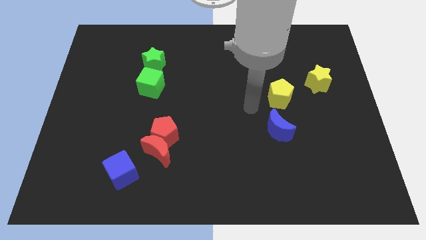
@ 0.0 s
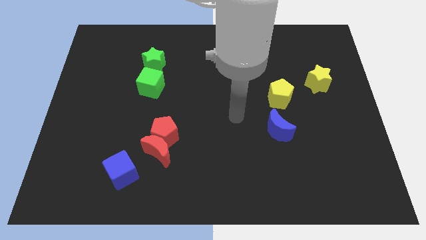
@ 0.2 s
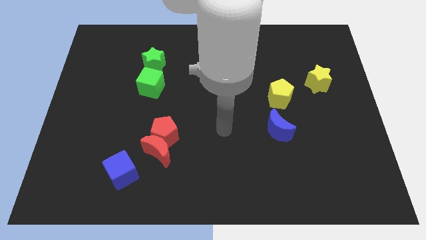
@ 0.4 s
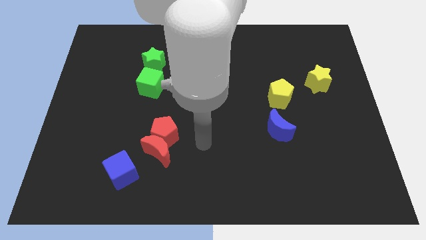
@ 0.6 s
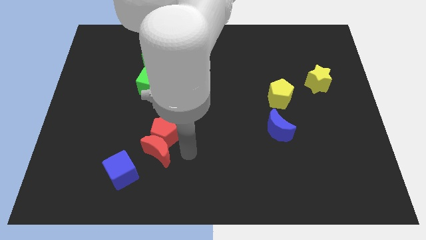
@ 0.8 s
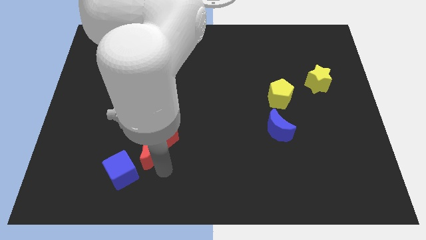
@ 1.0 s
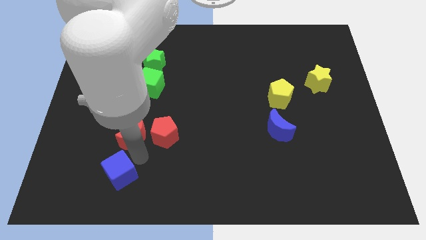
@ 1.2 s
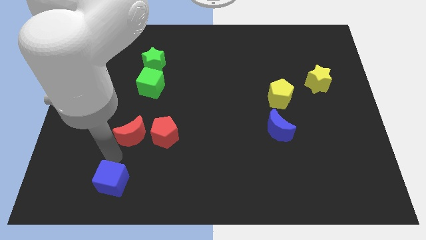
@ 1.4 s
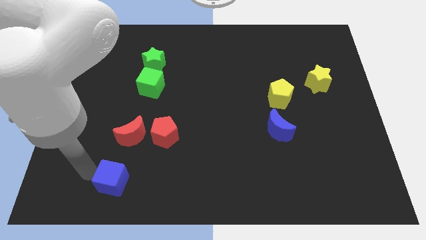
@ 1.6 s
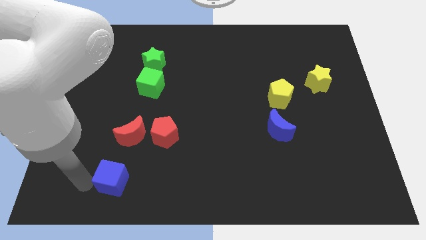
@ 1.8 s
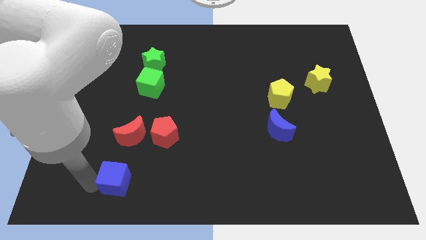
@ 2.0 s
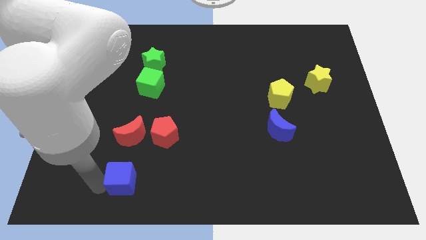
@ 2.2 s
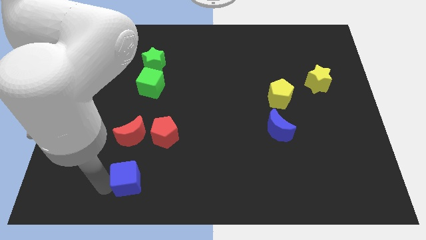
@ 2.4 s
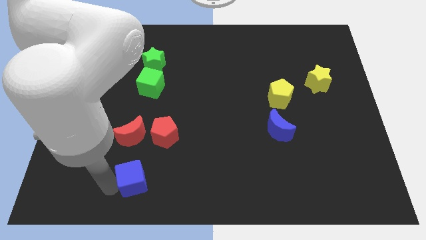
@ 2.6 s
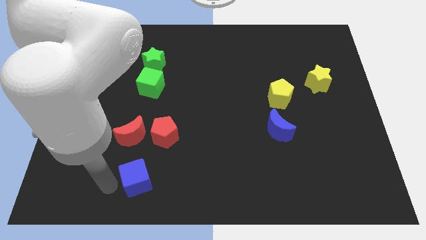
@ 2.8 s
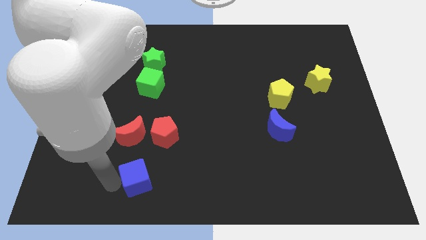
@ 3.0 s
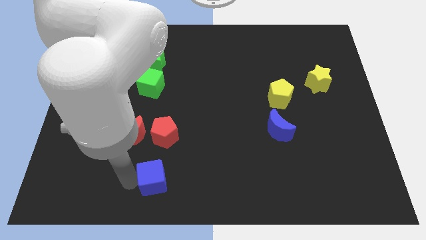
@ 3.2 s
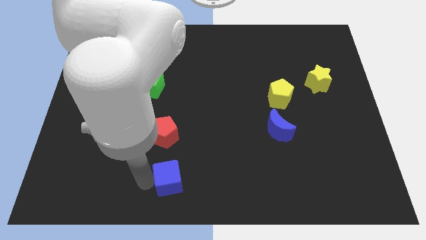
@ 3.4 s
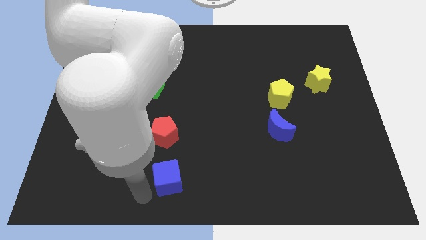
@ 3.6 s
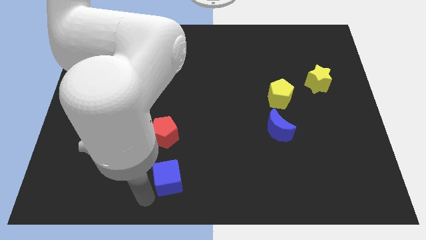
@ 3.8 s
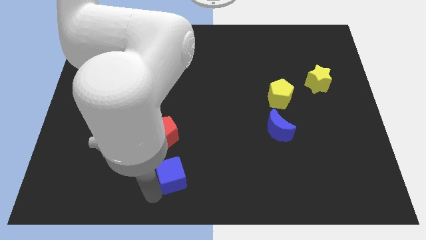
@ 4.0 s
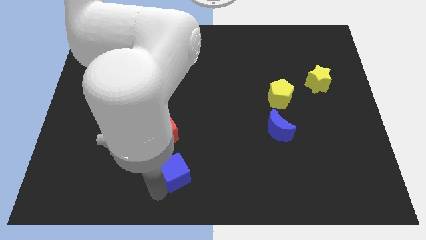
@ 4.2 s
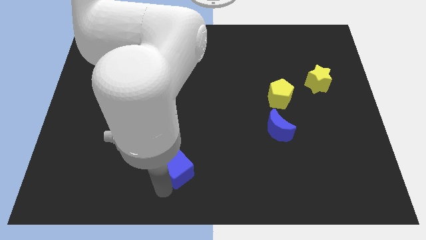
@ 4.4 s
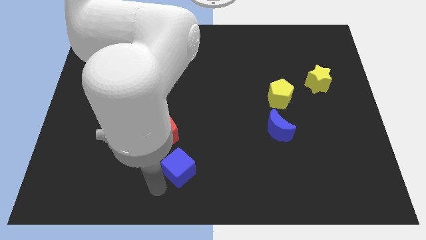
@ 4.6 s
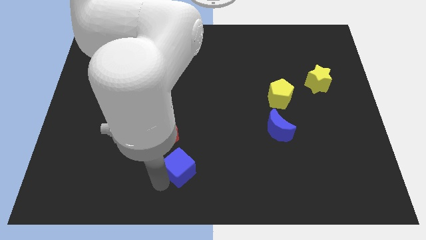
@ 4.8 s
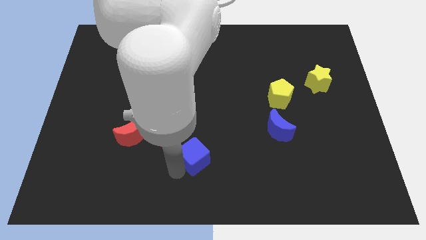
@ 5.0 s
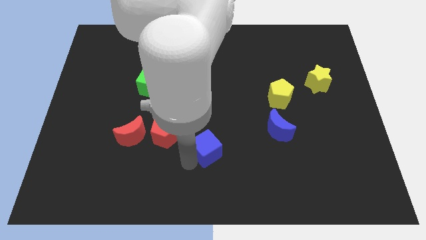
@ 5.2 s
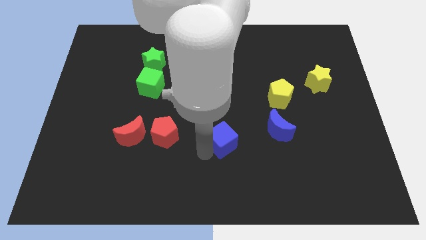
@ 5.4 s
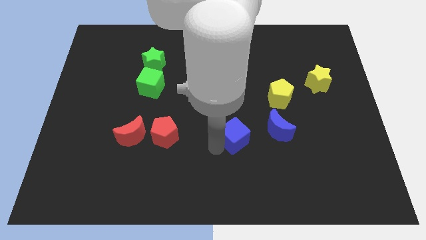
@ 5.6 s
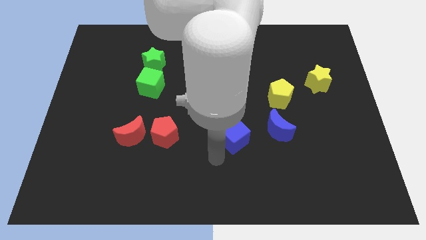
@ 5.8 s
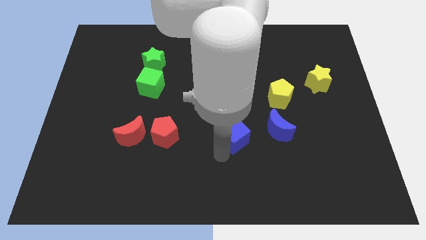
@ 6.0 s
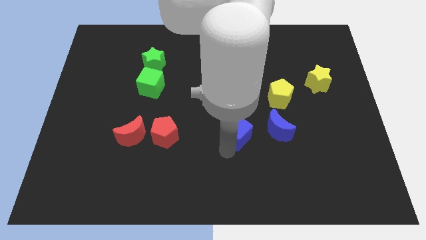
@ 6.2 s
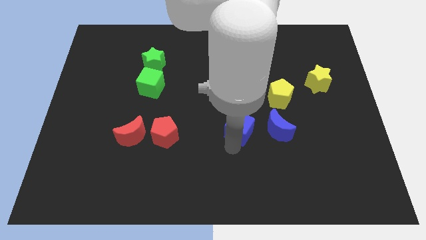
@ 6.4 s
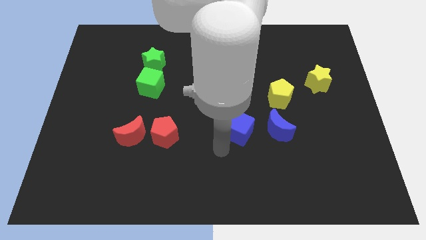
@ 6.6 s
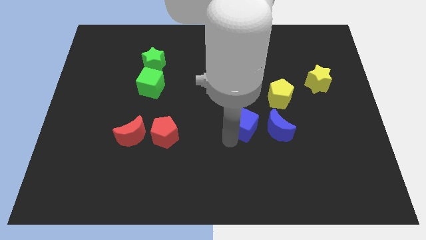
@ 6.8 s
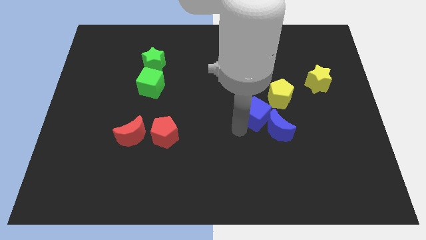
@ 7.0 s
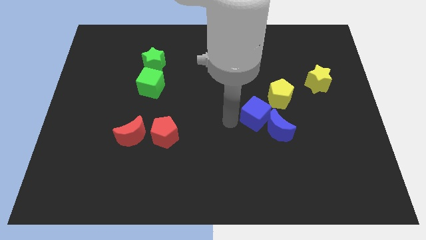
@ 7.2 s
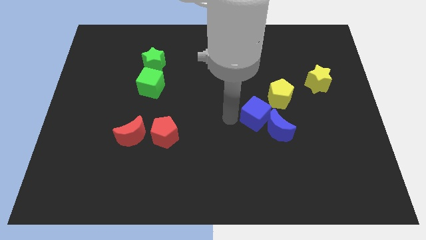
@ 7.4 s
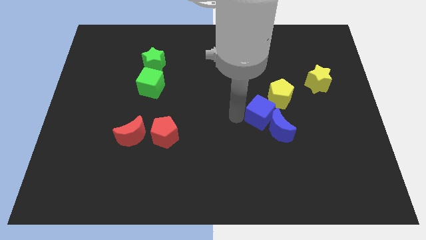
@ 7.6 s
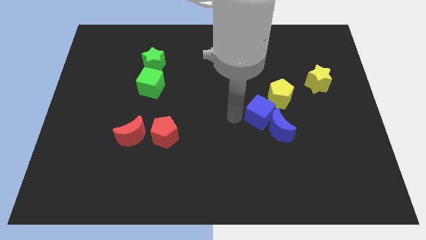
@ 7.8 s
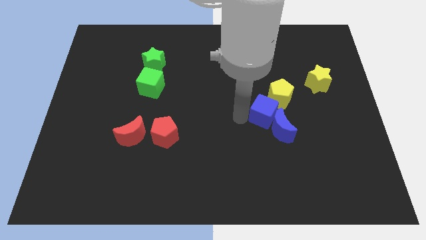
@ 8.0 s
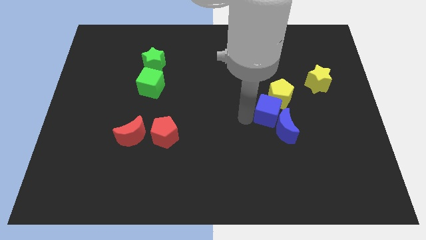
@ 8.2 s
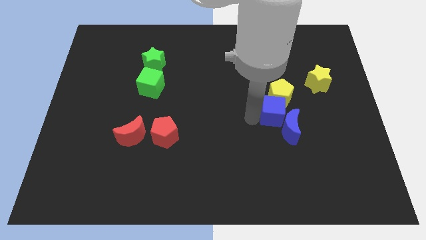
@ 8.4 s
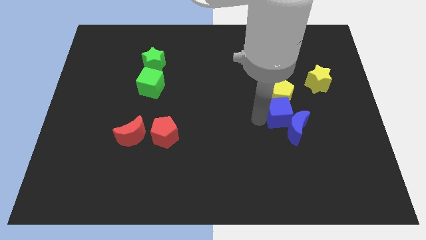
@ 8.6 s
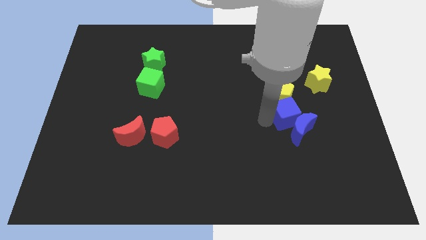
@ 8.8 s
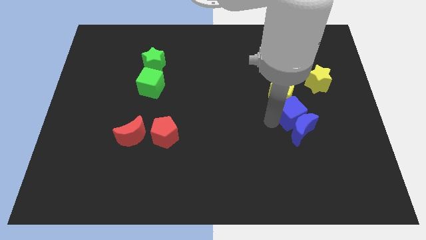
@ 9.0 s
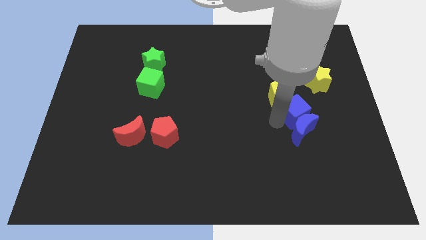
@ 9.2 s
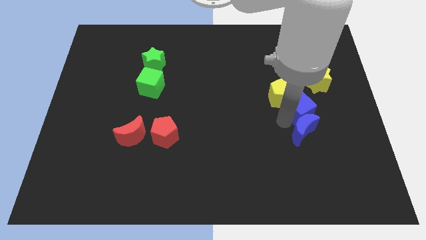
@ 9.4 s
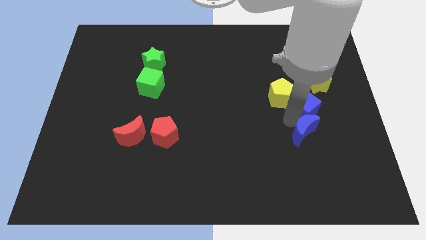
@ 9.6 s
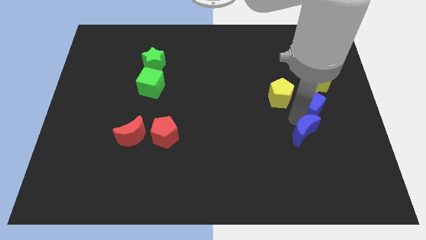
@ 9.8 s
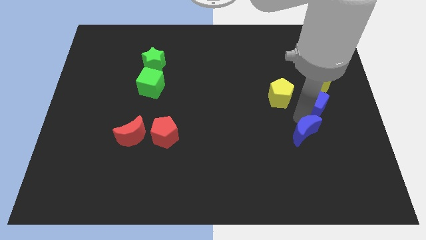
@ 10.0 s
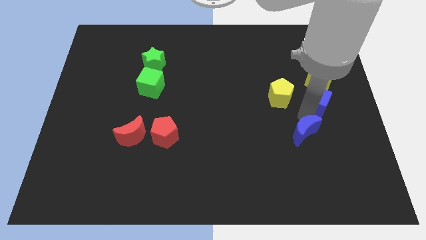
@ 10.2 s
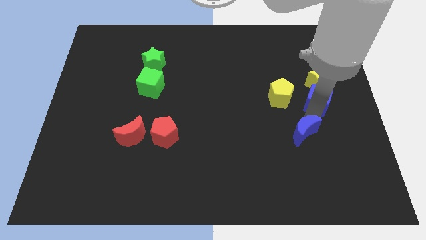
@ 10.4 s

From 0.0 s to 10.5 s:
put the blue cube close to the yellow star

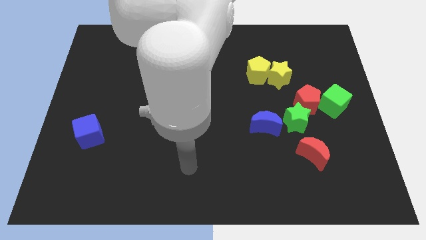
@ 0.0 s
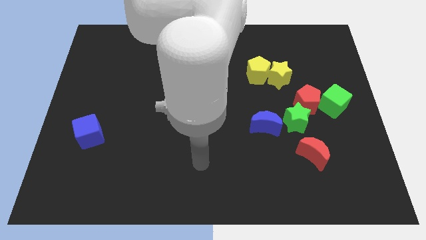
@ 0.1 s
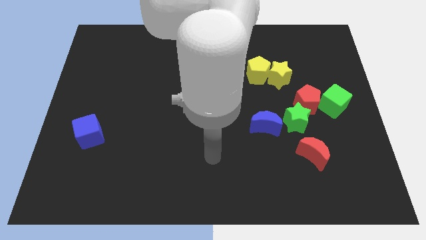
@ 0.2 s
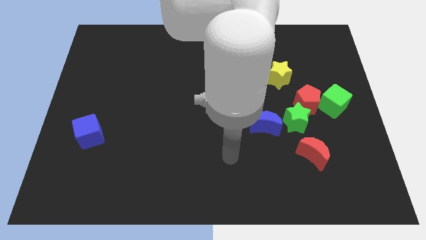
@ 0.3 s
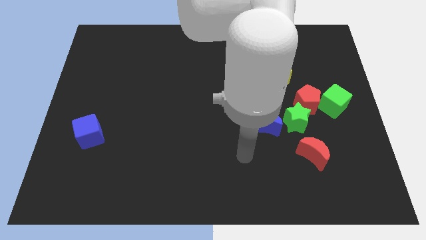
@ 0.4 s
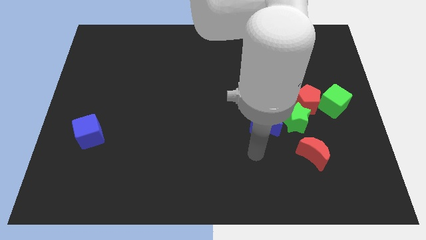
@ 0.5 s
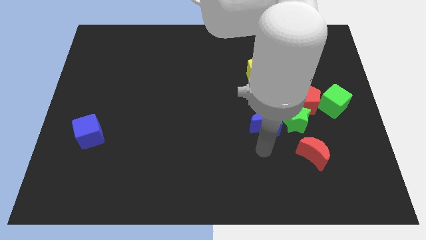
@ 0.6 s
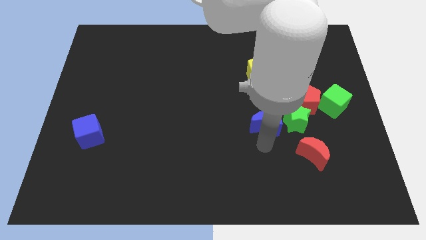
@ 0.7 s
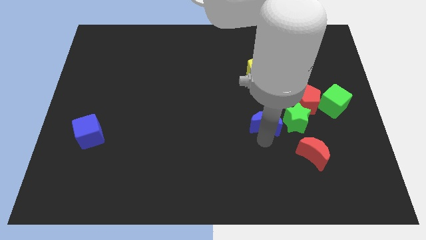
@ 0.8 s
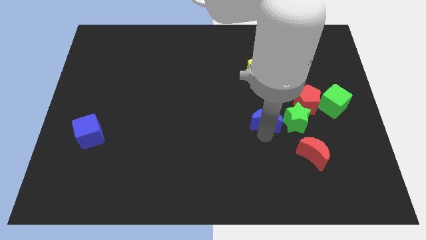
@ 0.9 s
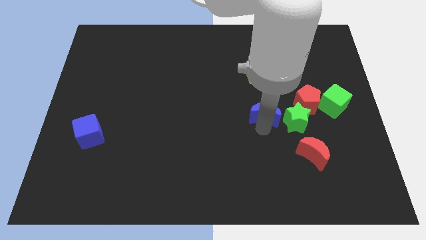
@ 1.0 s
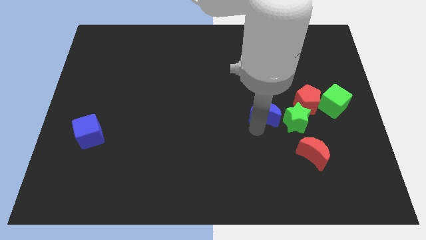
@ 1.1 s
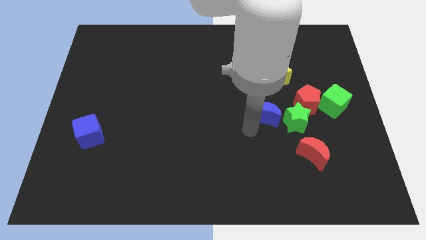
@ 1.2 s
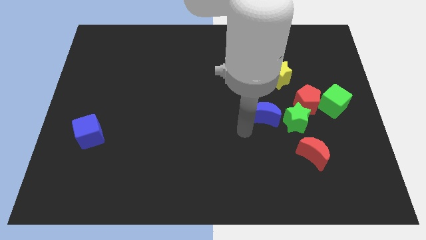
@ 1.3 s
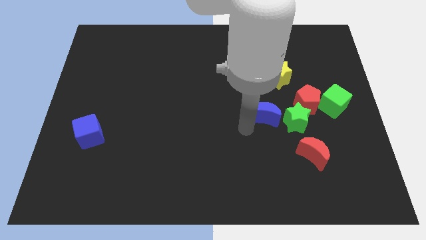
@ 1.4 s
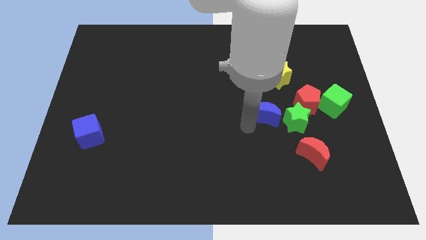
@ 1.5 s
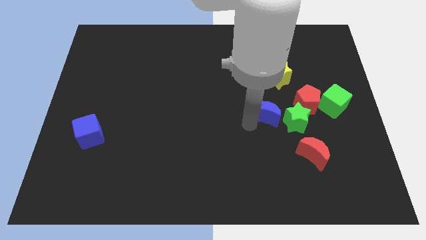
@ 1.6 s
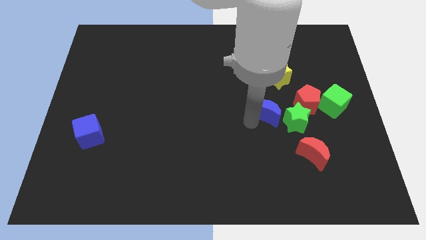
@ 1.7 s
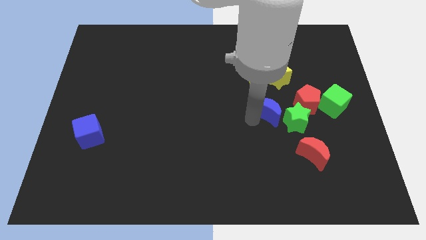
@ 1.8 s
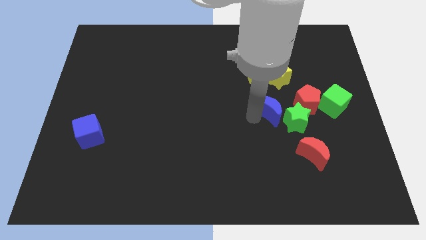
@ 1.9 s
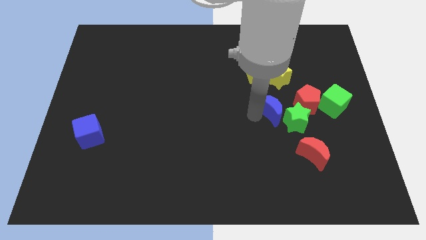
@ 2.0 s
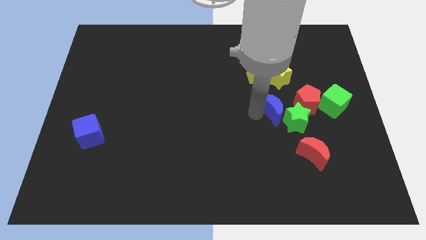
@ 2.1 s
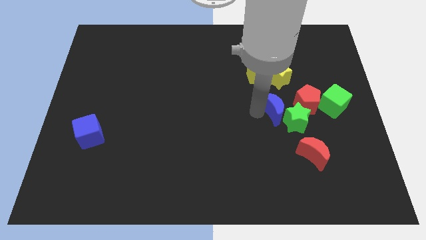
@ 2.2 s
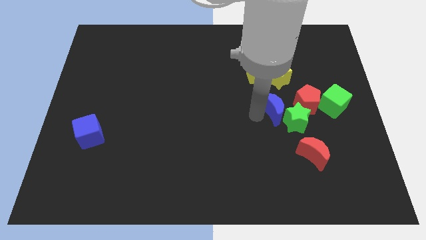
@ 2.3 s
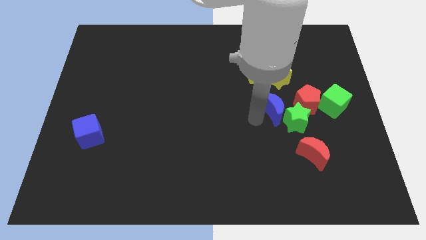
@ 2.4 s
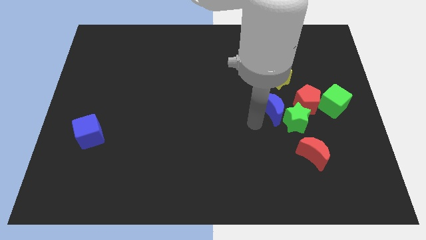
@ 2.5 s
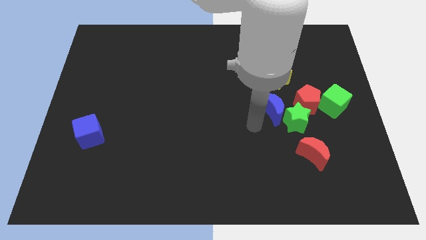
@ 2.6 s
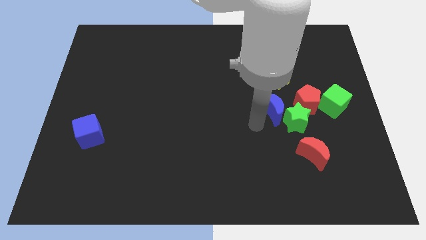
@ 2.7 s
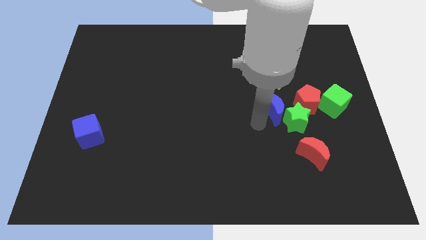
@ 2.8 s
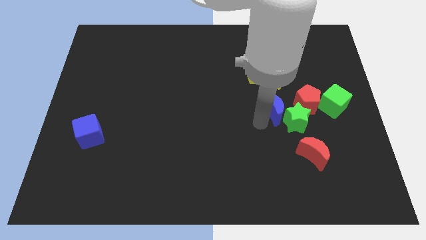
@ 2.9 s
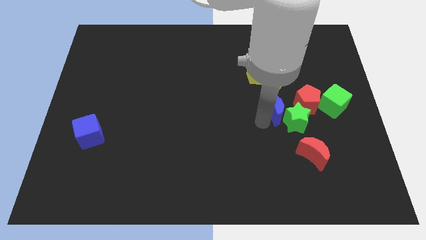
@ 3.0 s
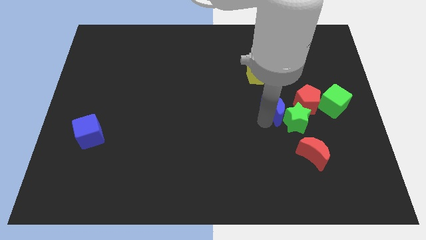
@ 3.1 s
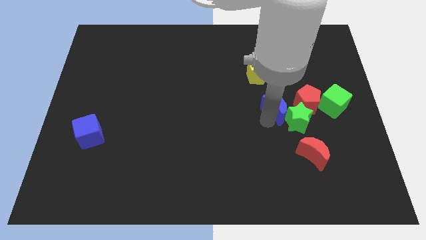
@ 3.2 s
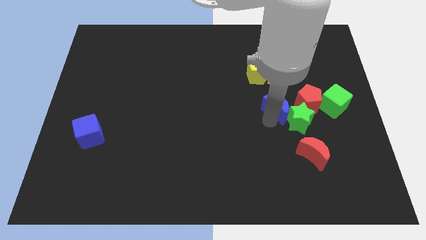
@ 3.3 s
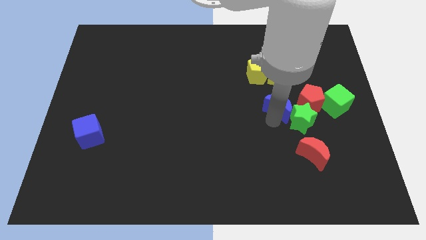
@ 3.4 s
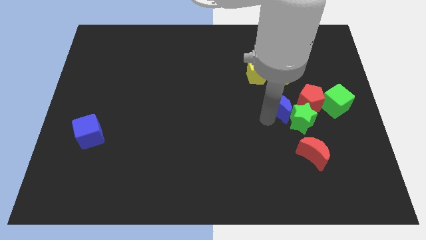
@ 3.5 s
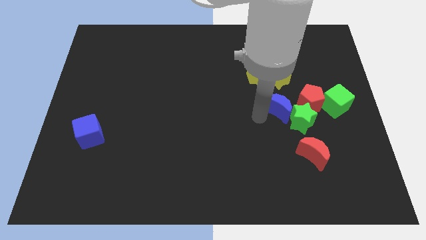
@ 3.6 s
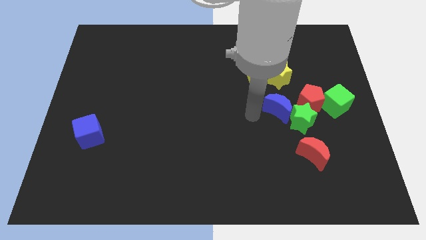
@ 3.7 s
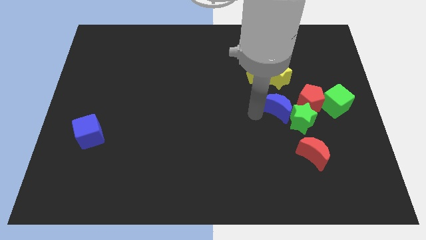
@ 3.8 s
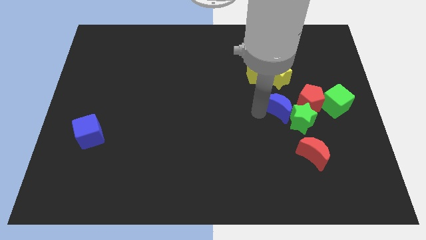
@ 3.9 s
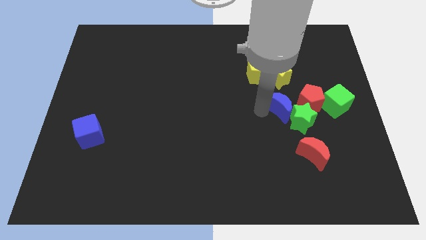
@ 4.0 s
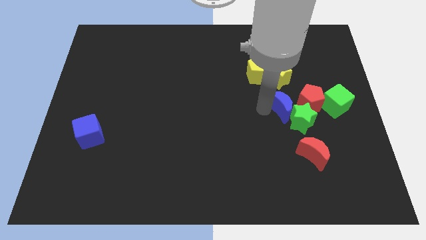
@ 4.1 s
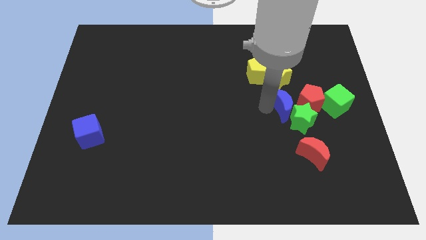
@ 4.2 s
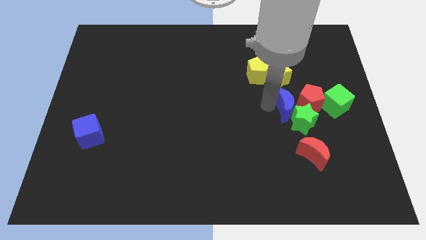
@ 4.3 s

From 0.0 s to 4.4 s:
push the blue moon to the red pentagon
